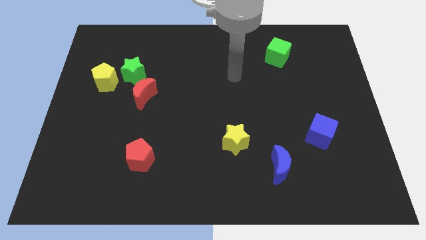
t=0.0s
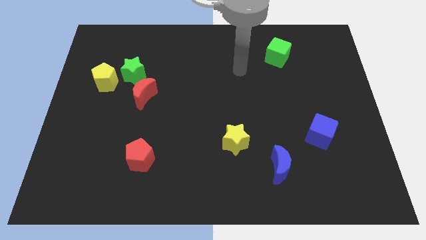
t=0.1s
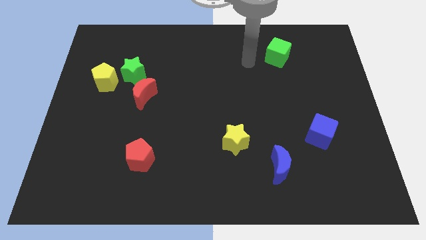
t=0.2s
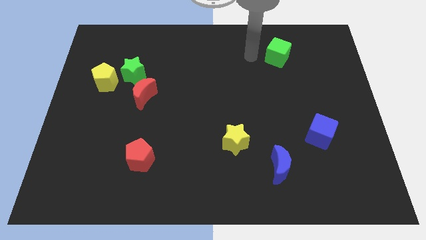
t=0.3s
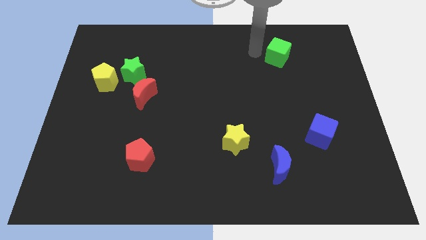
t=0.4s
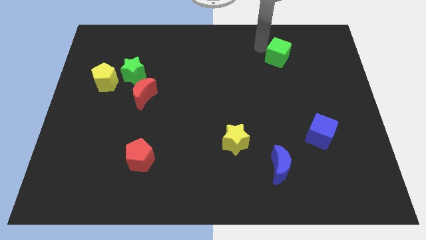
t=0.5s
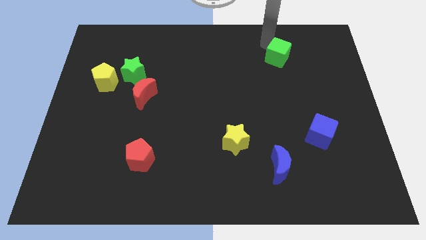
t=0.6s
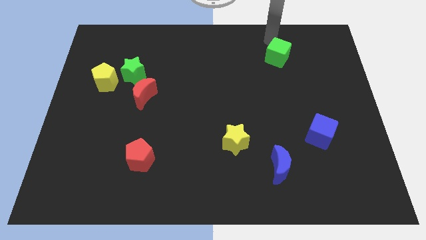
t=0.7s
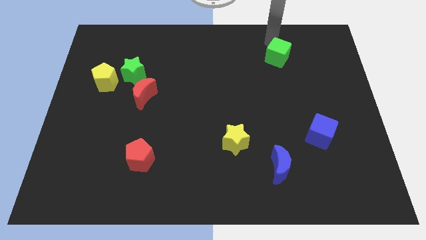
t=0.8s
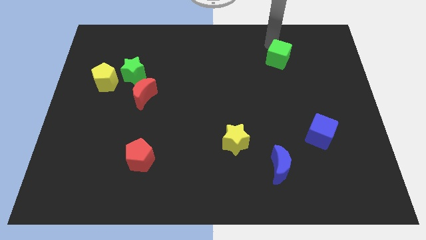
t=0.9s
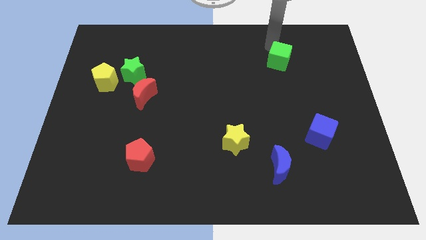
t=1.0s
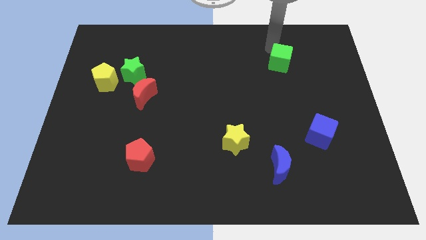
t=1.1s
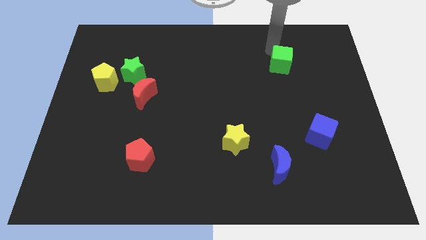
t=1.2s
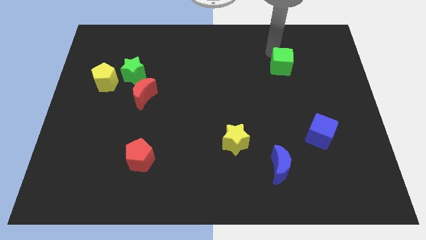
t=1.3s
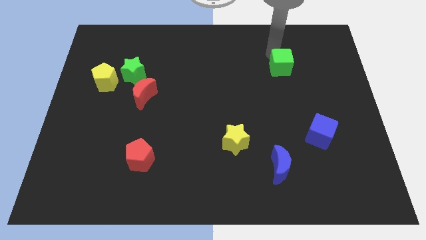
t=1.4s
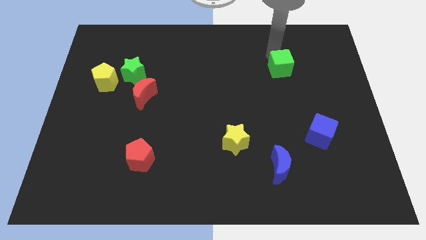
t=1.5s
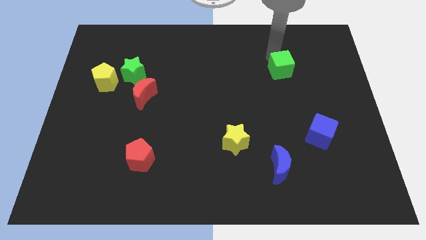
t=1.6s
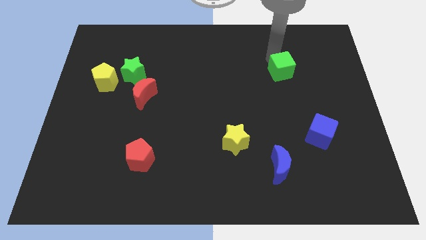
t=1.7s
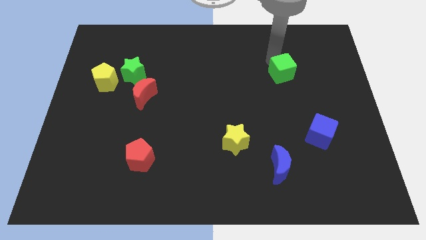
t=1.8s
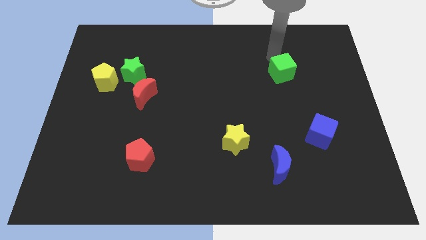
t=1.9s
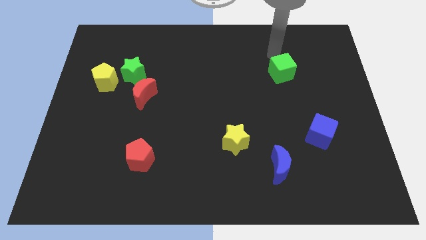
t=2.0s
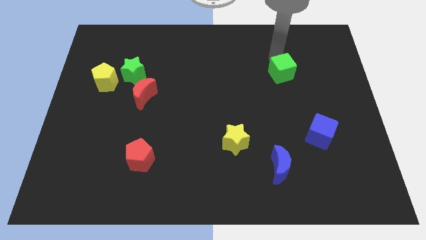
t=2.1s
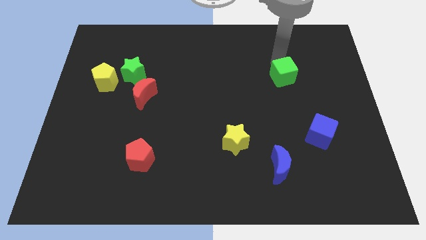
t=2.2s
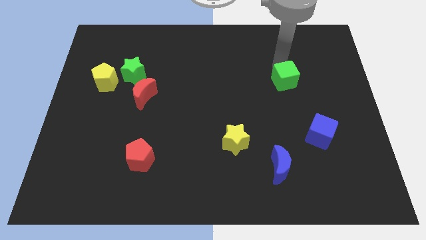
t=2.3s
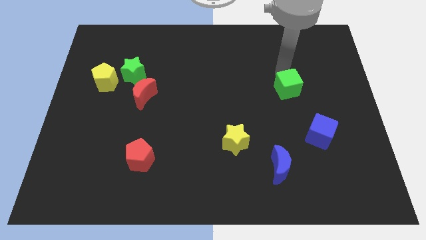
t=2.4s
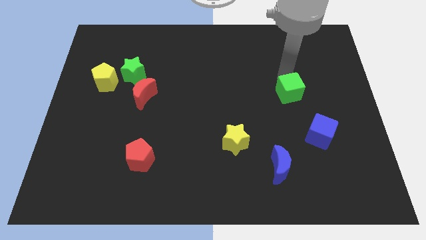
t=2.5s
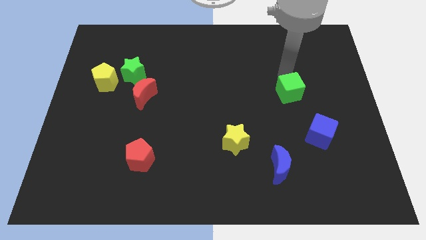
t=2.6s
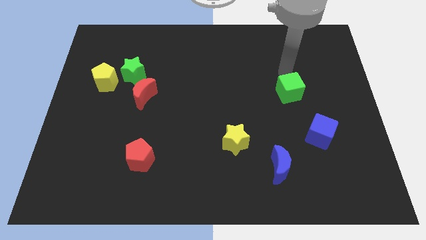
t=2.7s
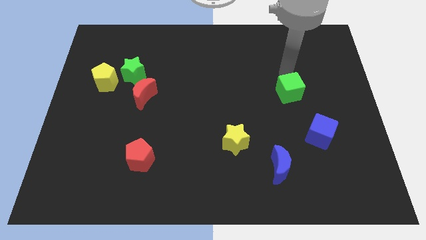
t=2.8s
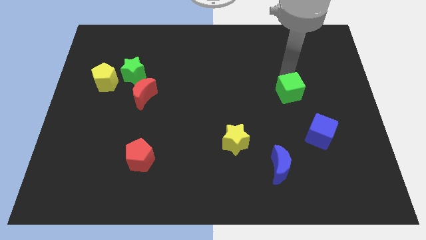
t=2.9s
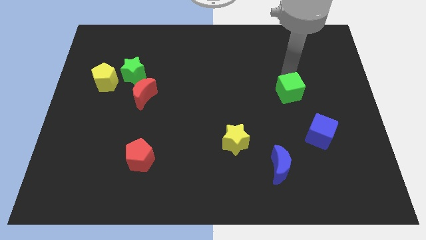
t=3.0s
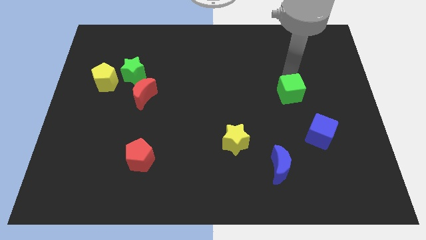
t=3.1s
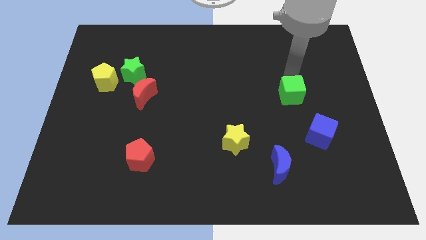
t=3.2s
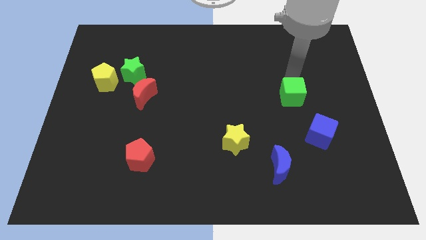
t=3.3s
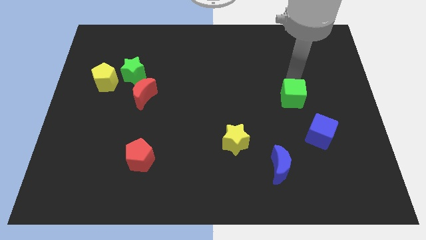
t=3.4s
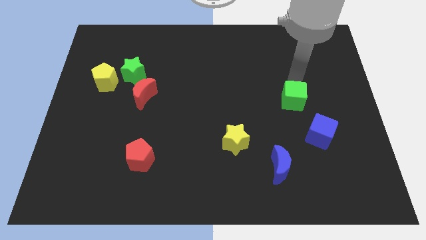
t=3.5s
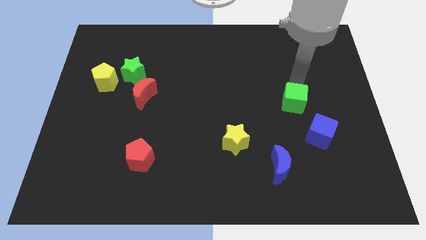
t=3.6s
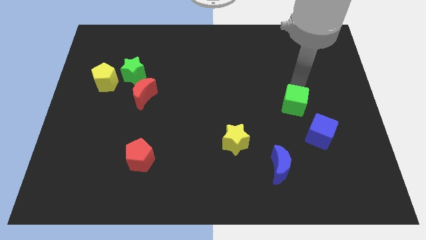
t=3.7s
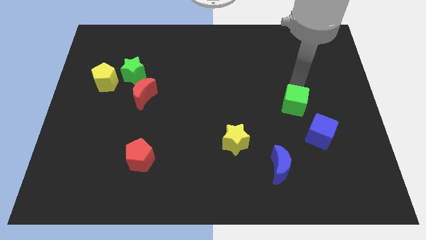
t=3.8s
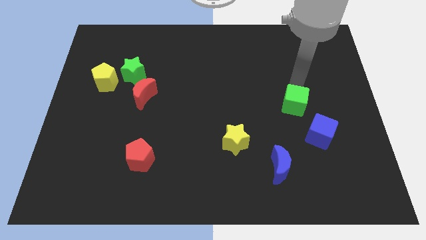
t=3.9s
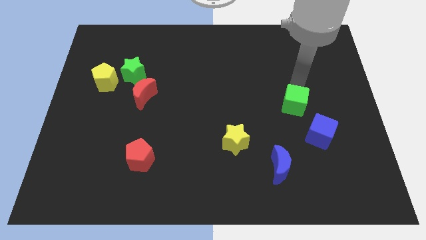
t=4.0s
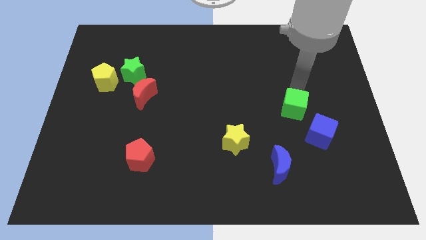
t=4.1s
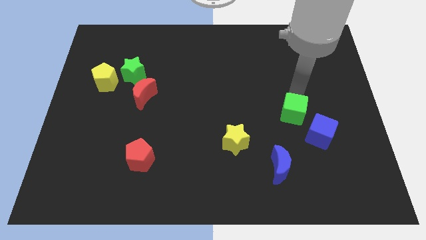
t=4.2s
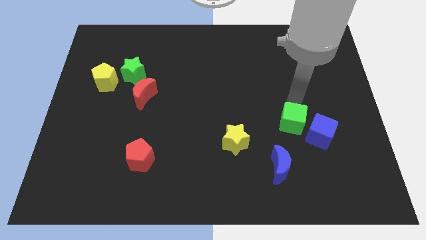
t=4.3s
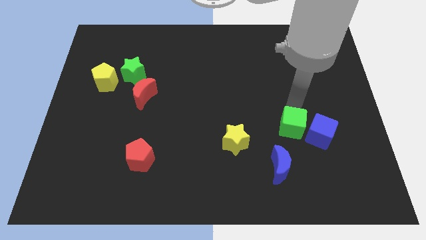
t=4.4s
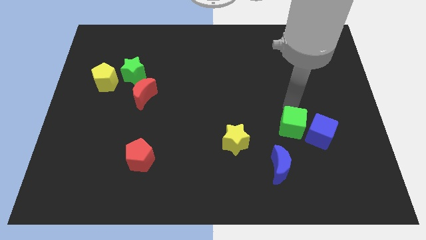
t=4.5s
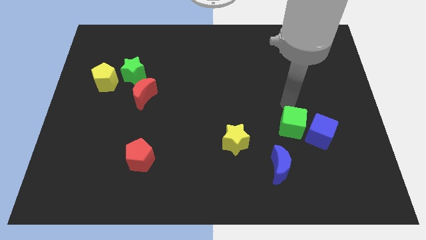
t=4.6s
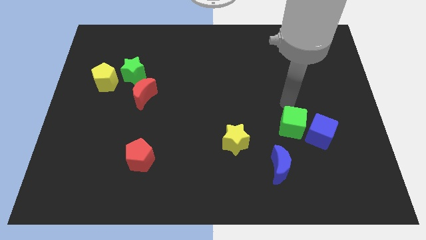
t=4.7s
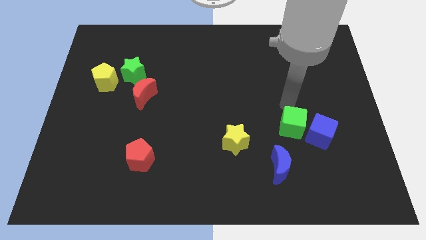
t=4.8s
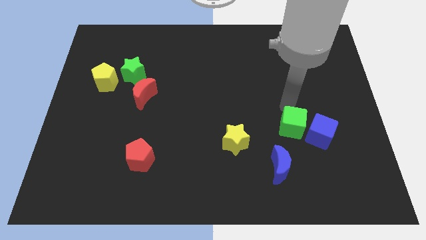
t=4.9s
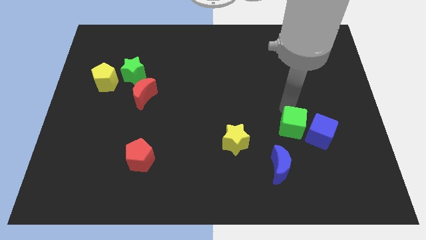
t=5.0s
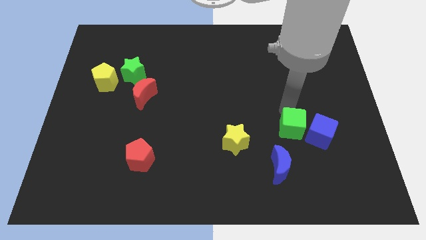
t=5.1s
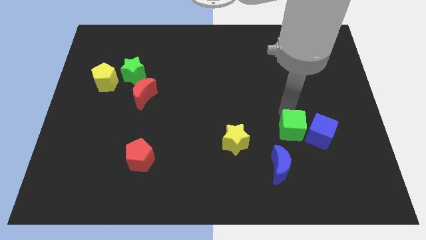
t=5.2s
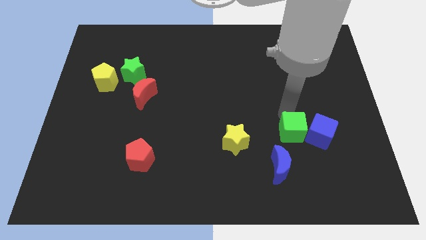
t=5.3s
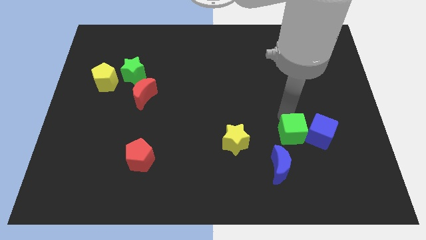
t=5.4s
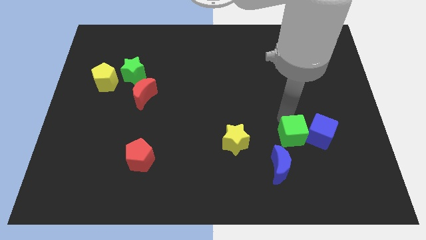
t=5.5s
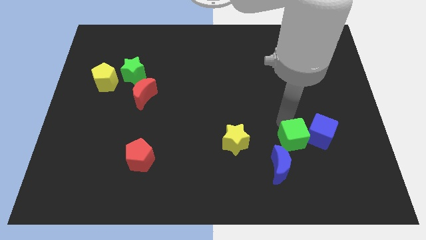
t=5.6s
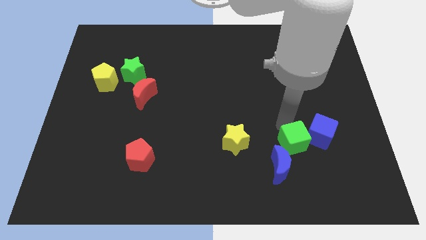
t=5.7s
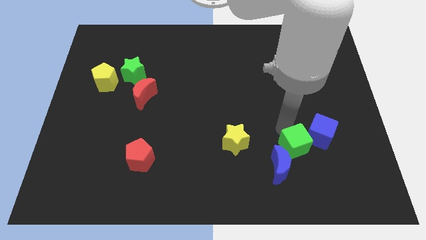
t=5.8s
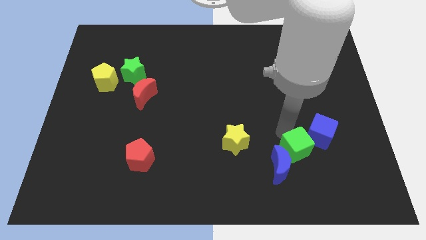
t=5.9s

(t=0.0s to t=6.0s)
move the green cube right of the blue moon

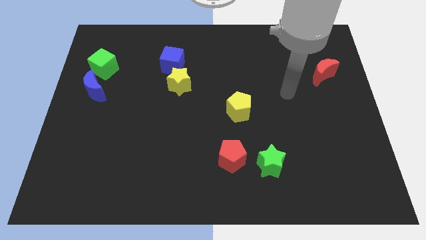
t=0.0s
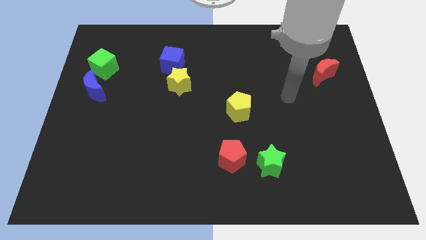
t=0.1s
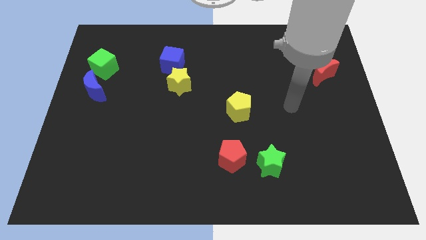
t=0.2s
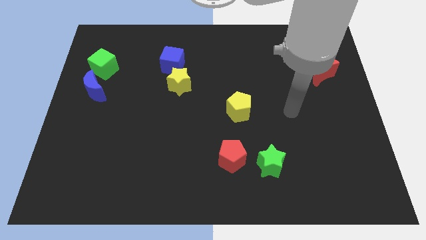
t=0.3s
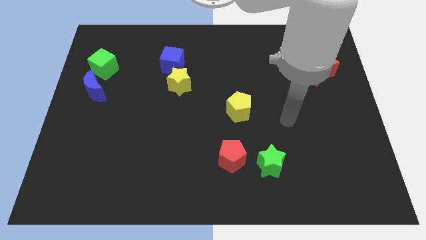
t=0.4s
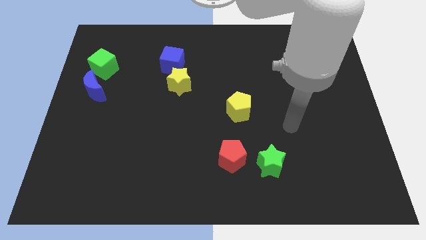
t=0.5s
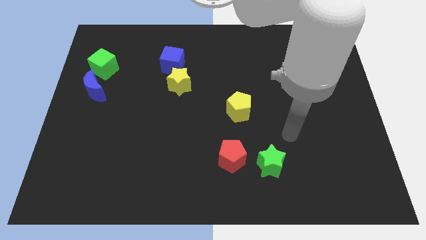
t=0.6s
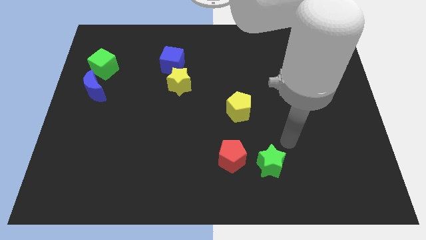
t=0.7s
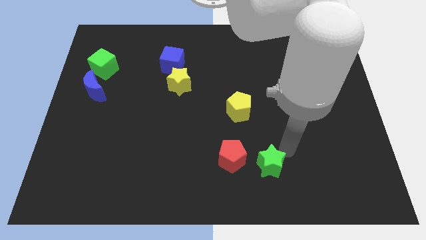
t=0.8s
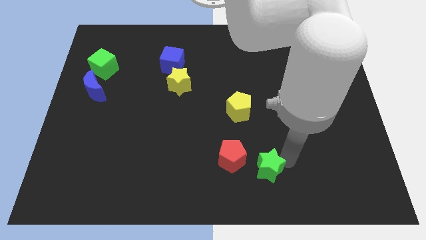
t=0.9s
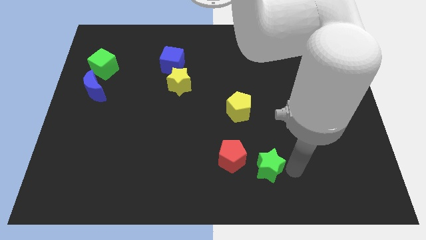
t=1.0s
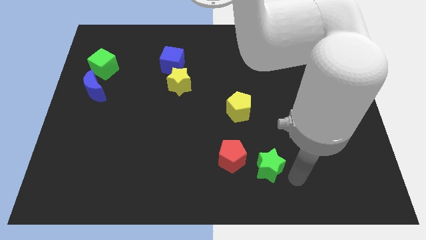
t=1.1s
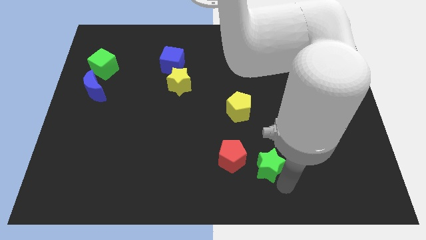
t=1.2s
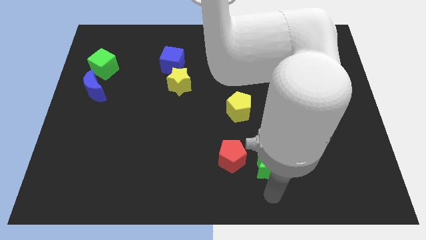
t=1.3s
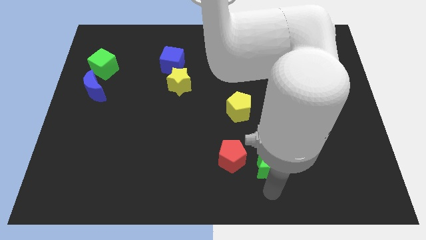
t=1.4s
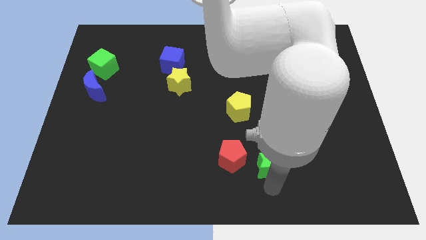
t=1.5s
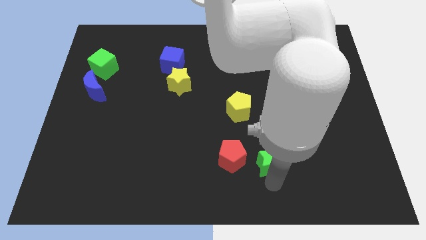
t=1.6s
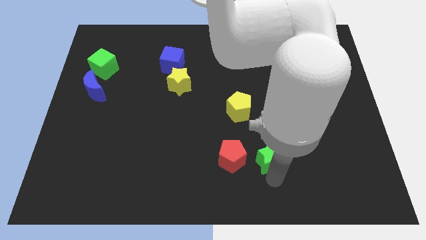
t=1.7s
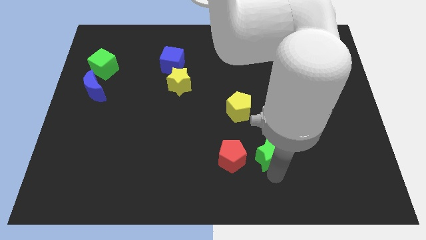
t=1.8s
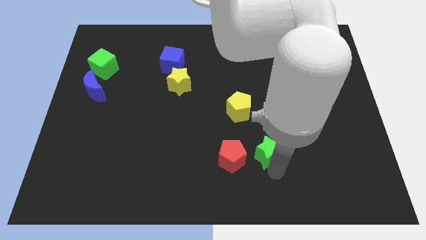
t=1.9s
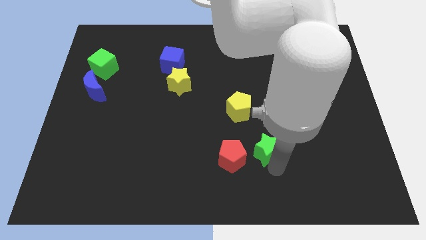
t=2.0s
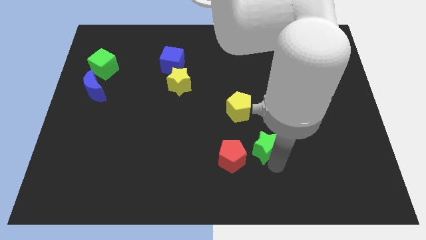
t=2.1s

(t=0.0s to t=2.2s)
put the green star to the bottom right side of the yellow pentagon
